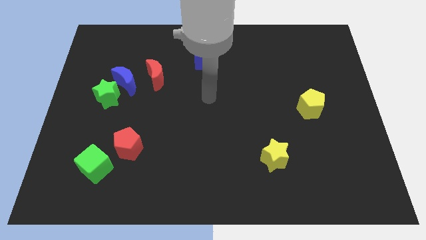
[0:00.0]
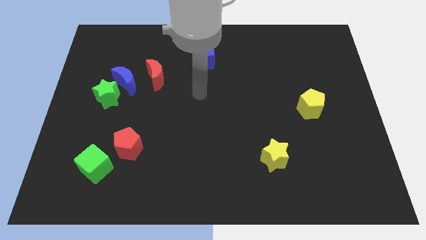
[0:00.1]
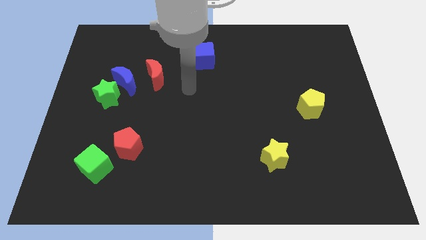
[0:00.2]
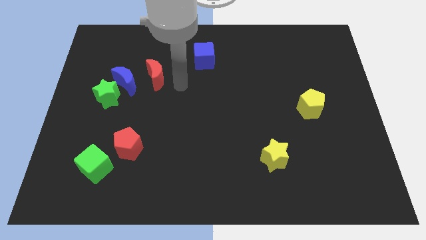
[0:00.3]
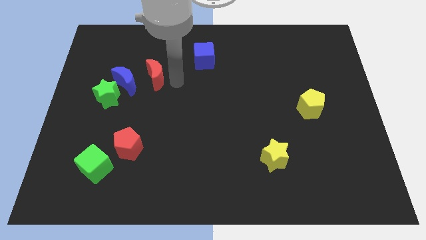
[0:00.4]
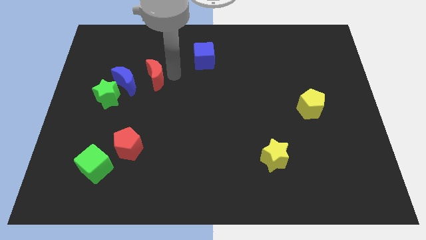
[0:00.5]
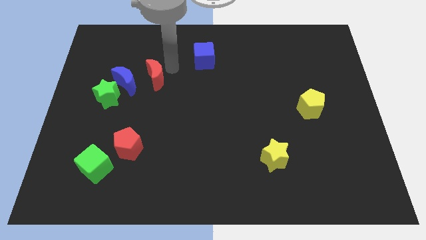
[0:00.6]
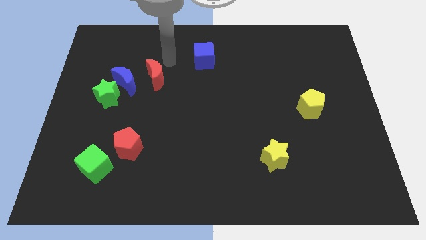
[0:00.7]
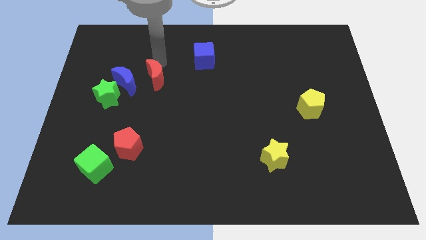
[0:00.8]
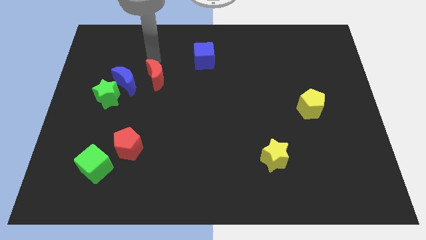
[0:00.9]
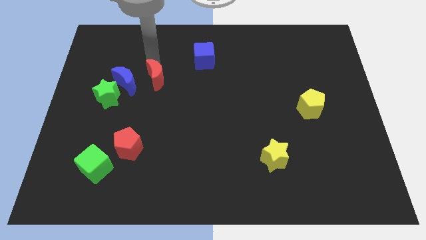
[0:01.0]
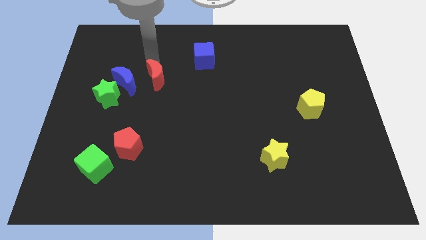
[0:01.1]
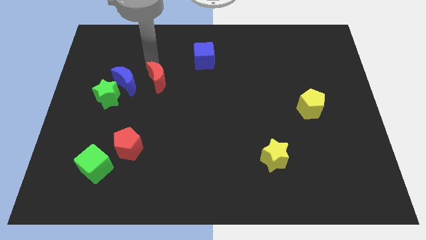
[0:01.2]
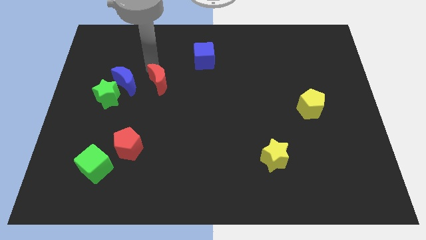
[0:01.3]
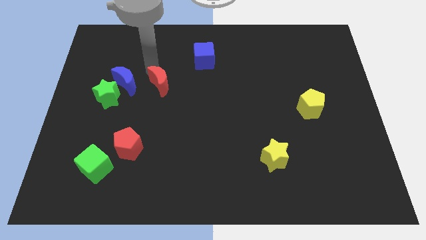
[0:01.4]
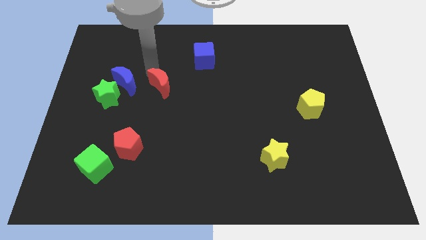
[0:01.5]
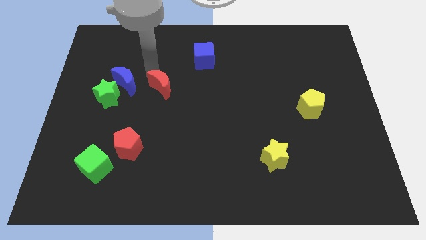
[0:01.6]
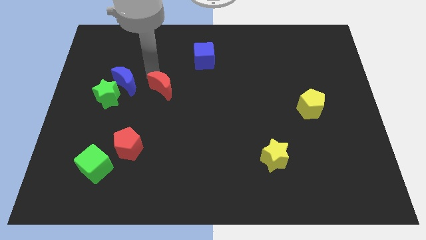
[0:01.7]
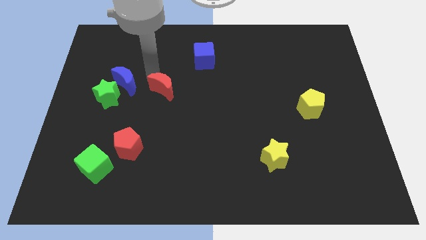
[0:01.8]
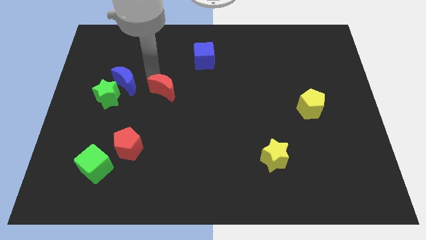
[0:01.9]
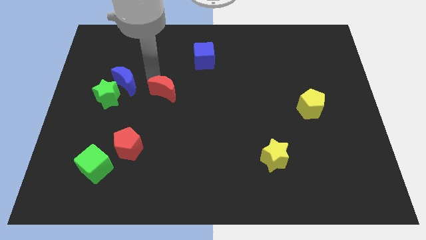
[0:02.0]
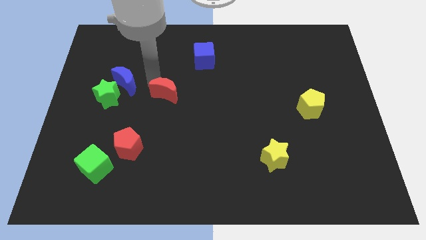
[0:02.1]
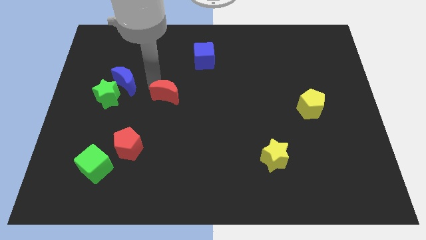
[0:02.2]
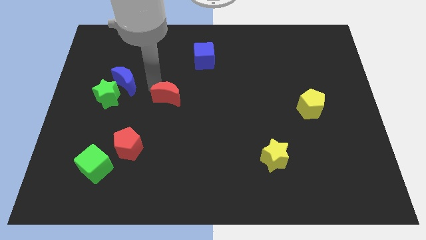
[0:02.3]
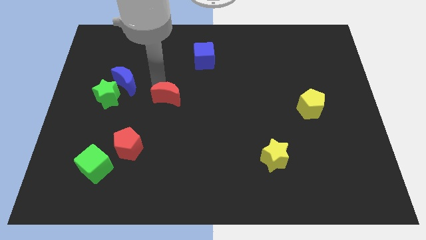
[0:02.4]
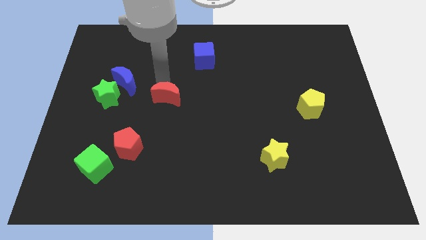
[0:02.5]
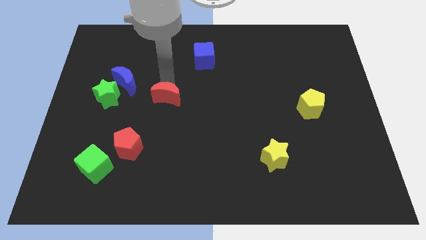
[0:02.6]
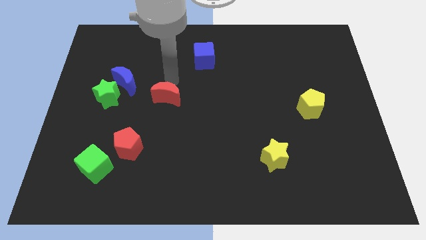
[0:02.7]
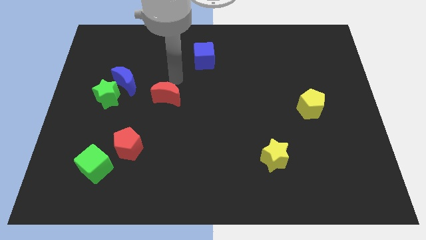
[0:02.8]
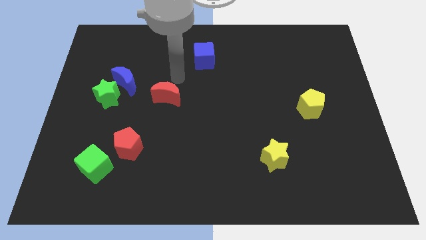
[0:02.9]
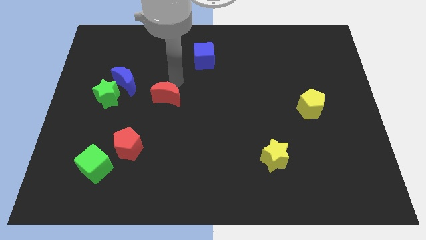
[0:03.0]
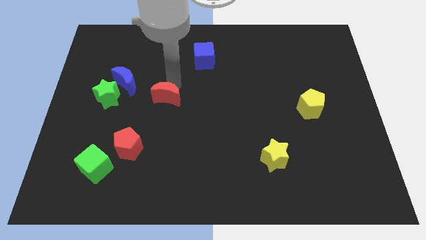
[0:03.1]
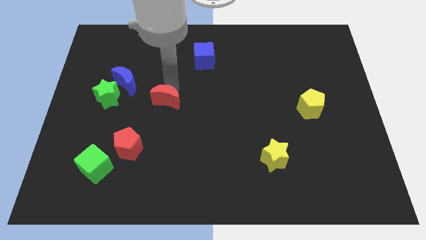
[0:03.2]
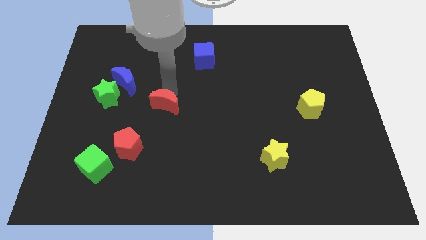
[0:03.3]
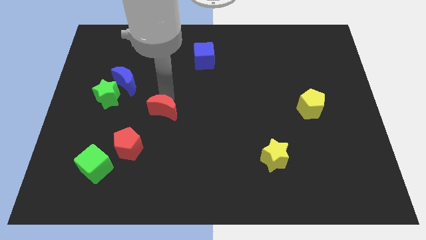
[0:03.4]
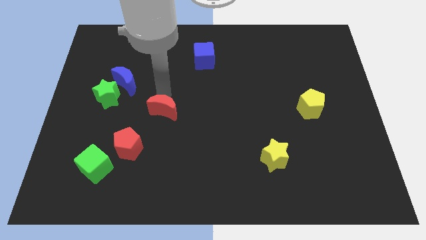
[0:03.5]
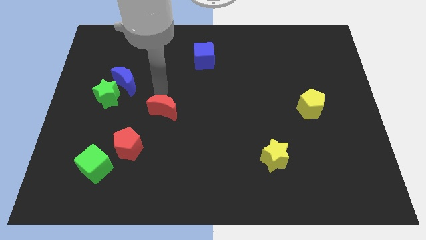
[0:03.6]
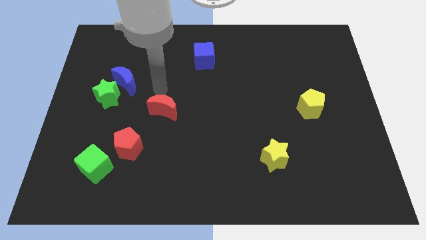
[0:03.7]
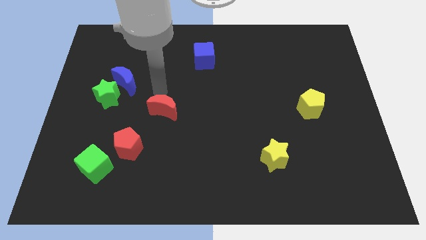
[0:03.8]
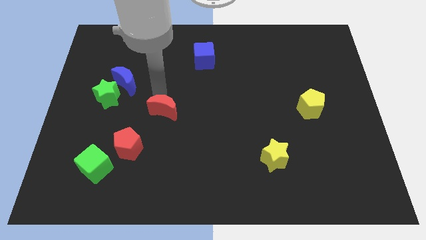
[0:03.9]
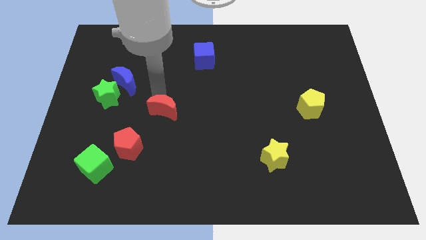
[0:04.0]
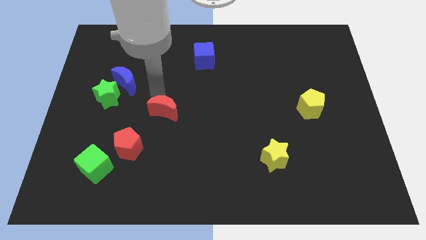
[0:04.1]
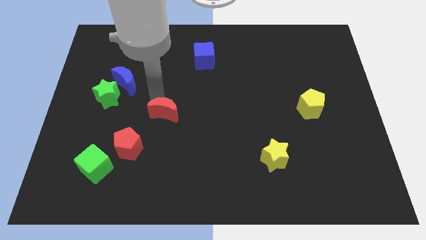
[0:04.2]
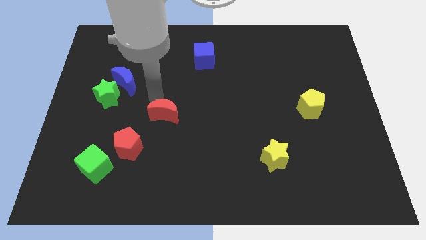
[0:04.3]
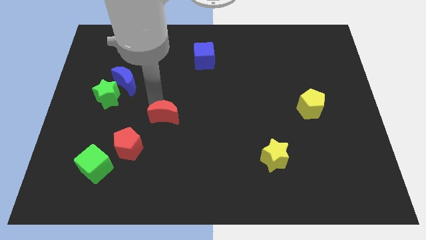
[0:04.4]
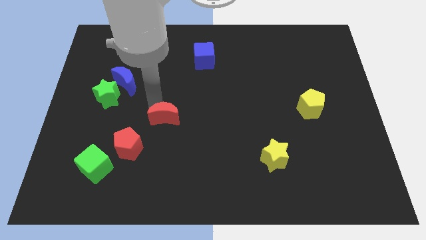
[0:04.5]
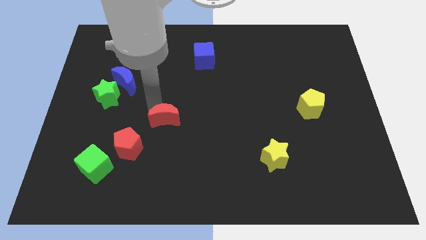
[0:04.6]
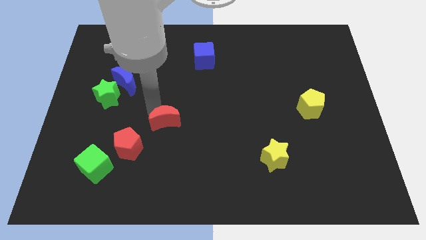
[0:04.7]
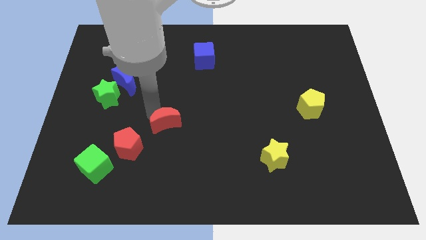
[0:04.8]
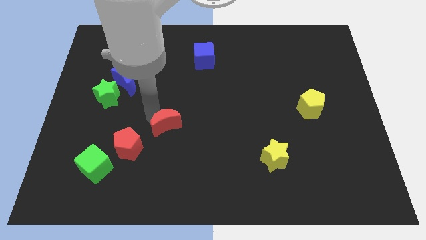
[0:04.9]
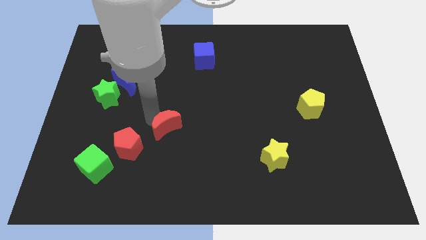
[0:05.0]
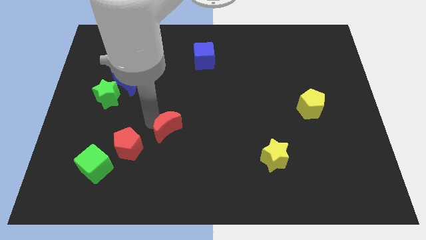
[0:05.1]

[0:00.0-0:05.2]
move the red moon just right of the red pentagon

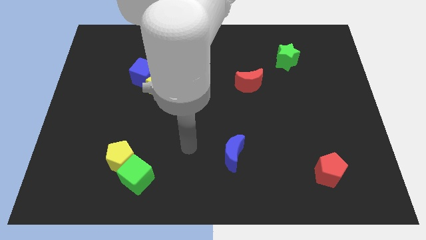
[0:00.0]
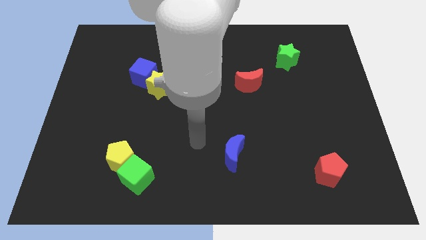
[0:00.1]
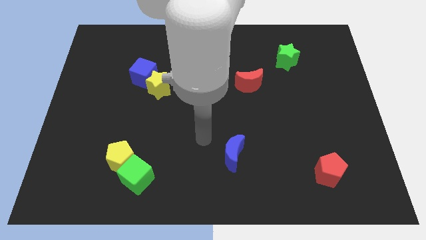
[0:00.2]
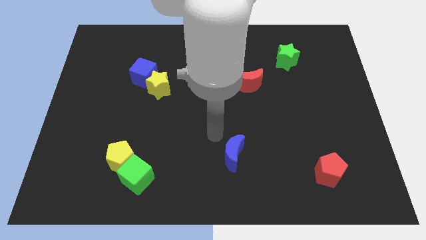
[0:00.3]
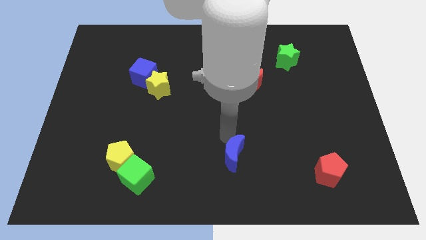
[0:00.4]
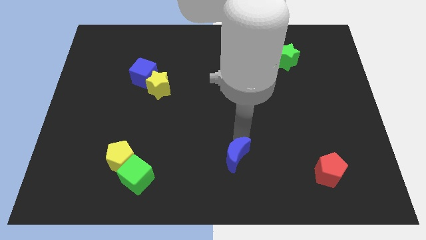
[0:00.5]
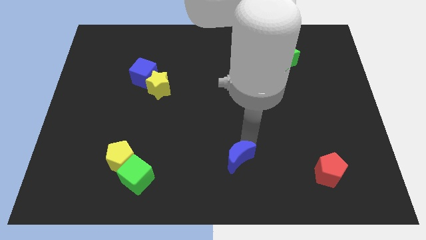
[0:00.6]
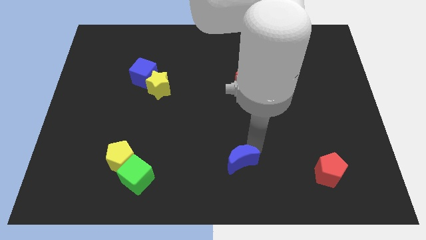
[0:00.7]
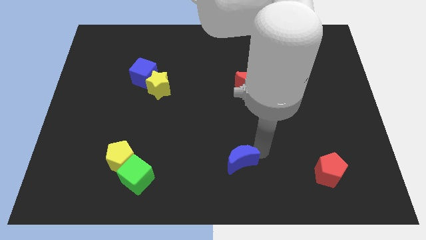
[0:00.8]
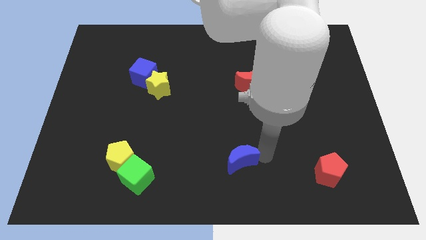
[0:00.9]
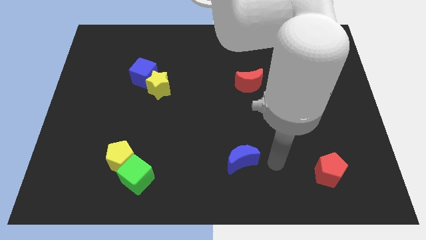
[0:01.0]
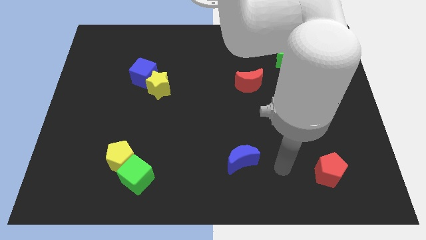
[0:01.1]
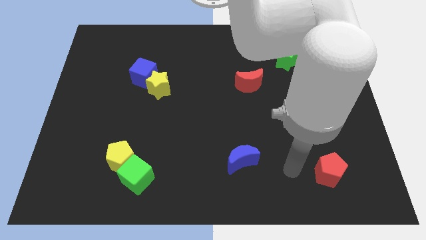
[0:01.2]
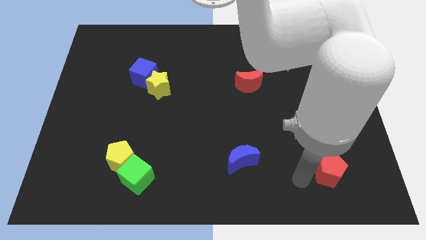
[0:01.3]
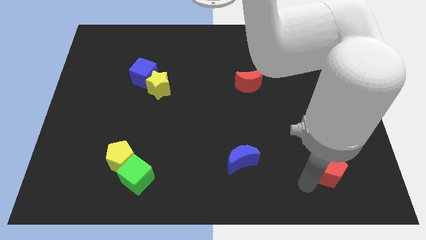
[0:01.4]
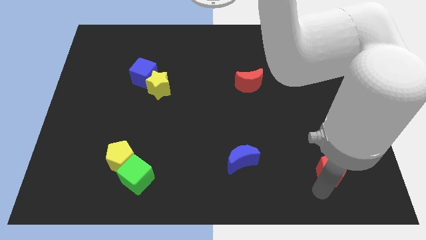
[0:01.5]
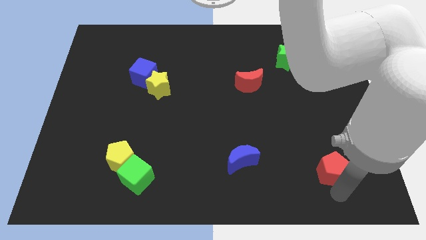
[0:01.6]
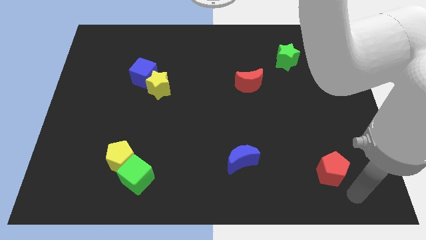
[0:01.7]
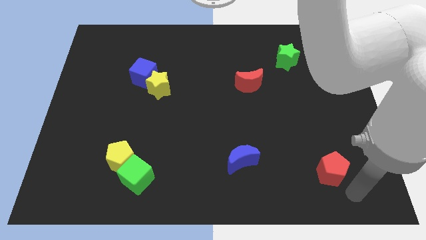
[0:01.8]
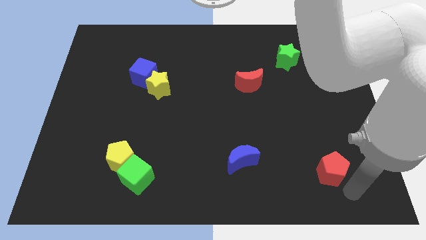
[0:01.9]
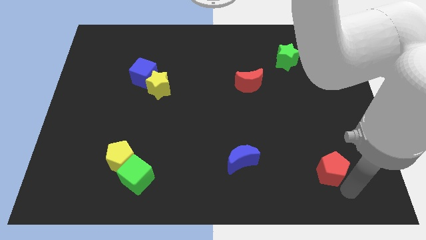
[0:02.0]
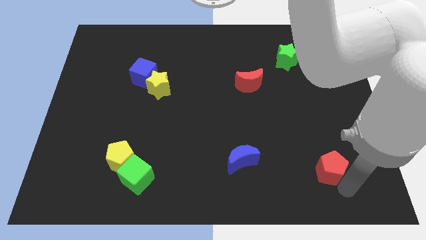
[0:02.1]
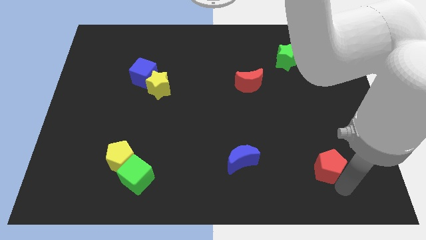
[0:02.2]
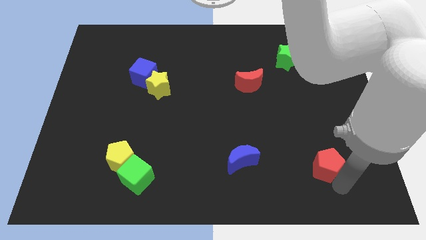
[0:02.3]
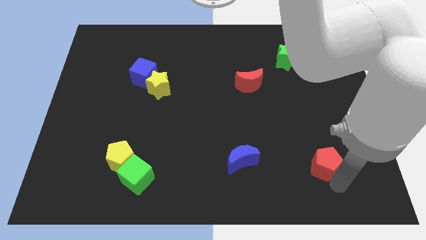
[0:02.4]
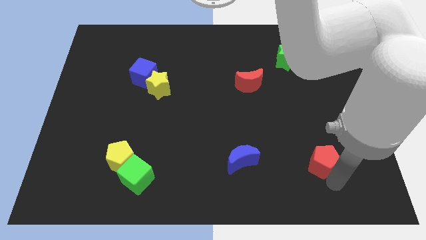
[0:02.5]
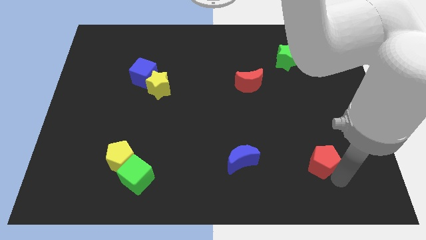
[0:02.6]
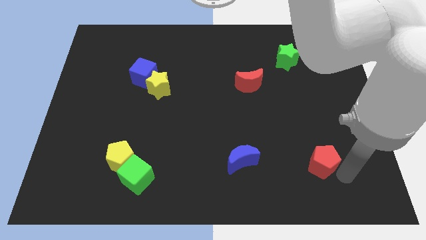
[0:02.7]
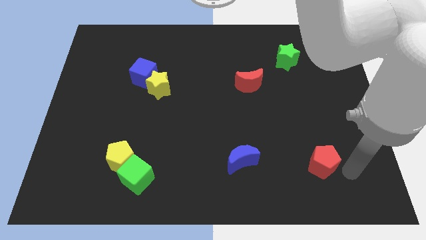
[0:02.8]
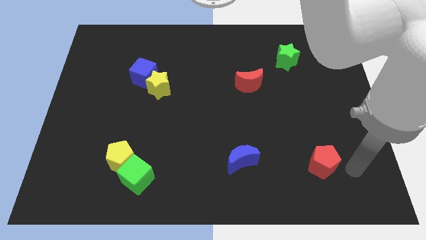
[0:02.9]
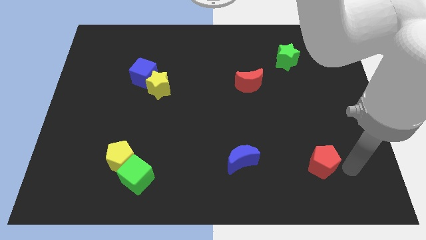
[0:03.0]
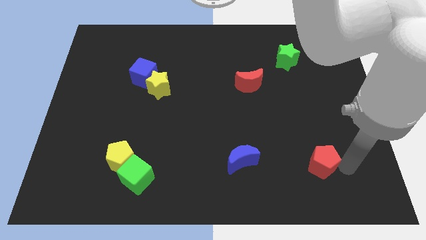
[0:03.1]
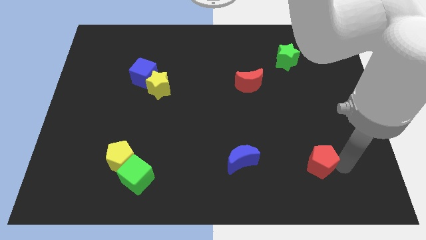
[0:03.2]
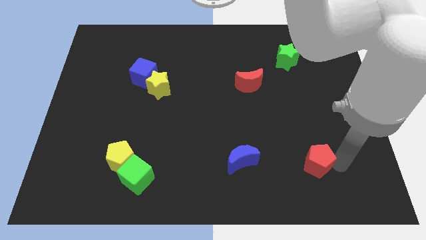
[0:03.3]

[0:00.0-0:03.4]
push the red pentagon to the right of the blue moon
